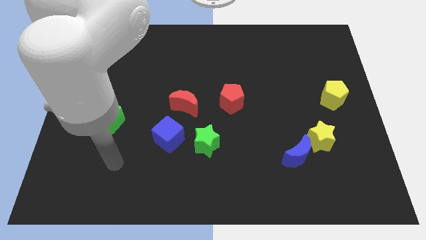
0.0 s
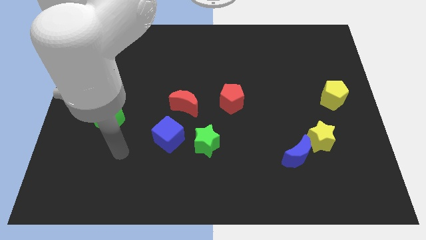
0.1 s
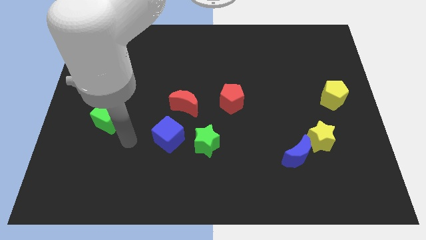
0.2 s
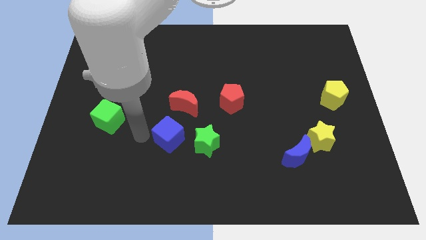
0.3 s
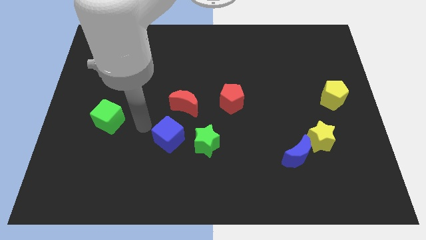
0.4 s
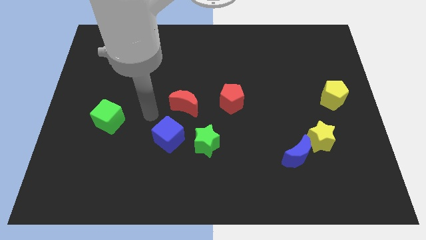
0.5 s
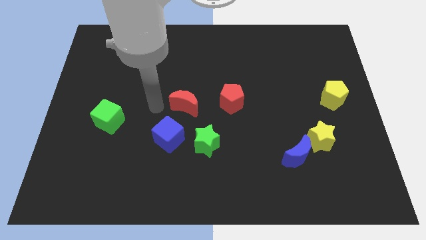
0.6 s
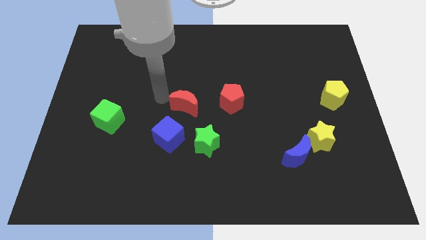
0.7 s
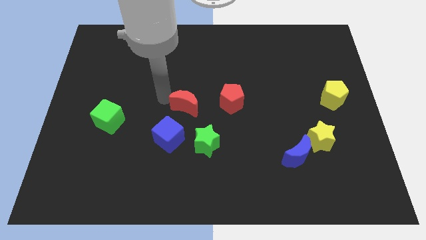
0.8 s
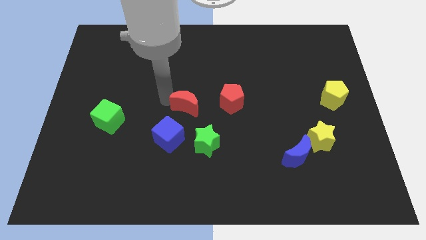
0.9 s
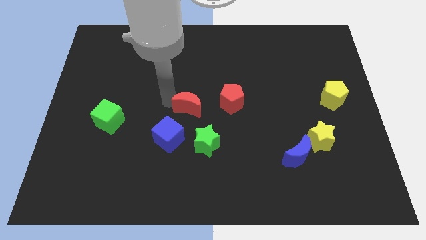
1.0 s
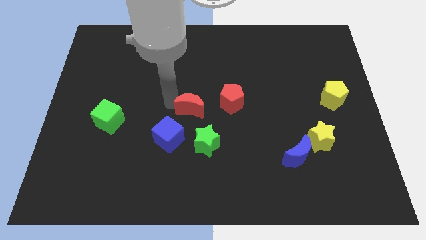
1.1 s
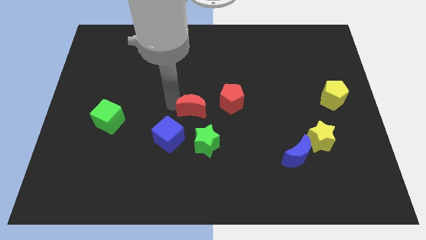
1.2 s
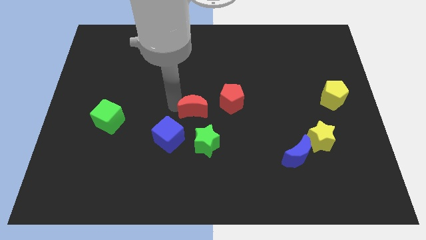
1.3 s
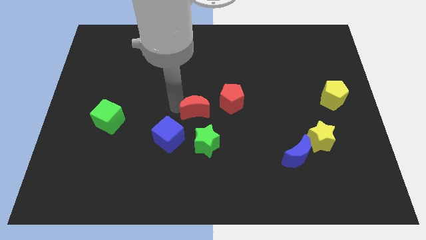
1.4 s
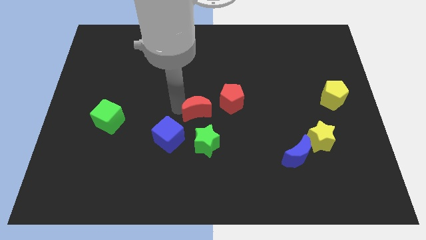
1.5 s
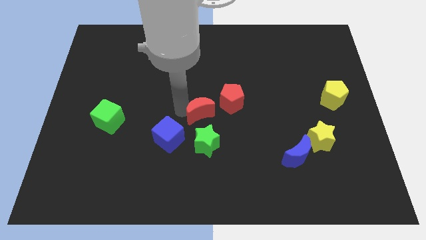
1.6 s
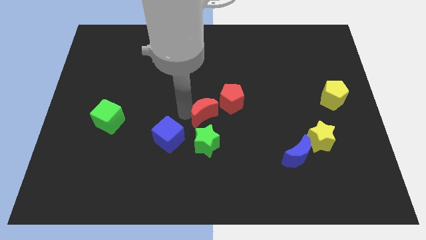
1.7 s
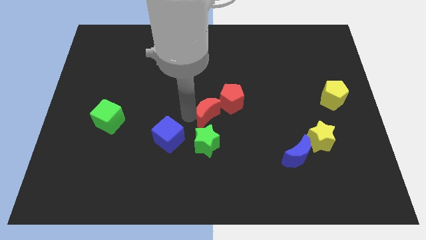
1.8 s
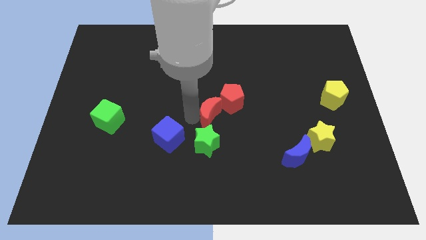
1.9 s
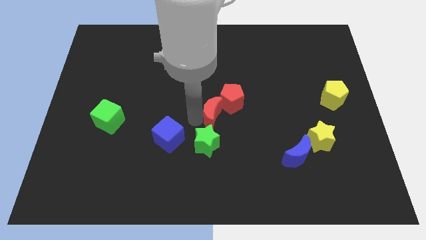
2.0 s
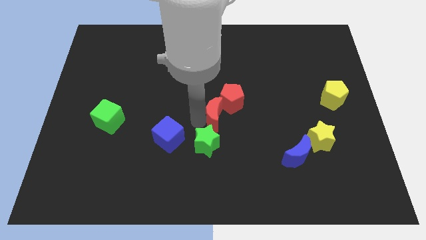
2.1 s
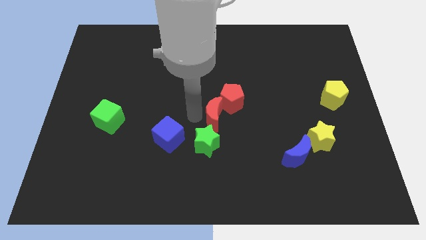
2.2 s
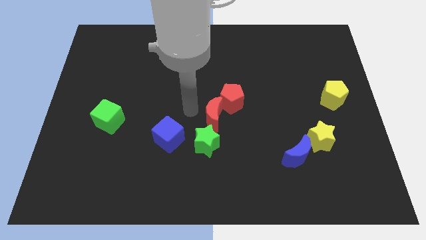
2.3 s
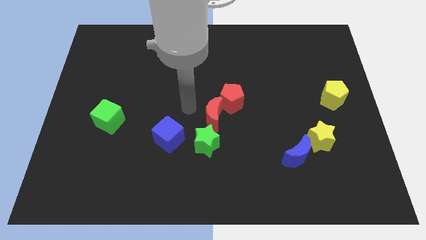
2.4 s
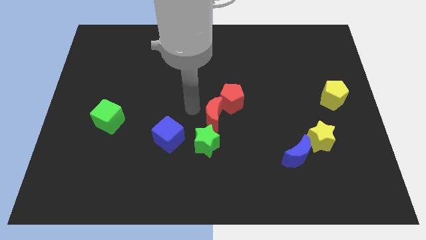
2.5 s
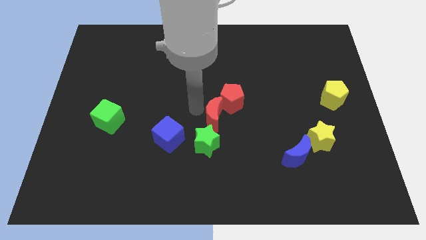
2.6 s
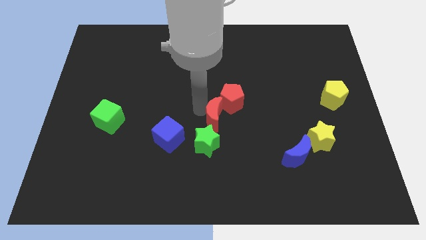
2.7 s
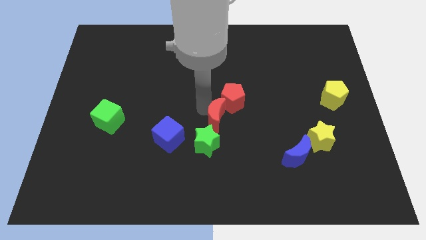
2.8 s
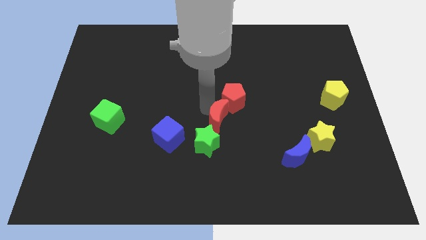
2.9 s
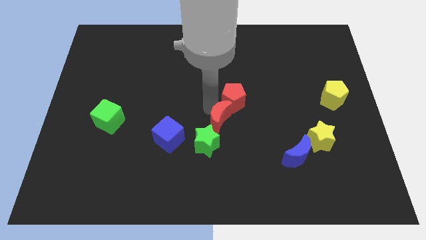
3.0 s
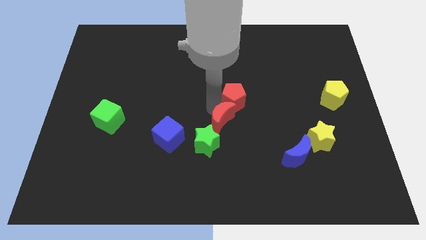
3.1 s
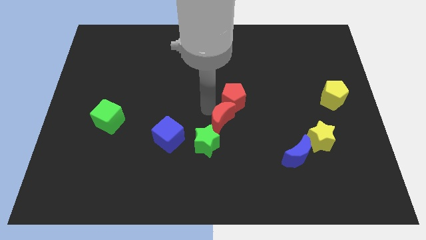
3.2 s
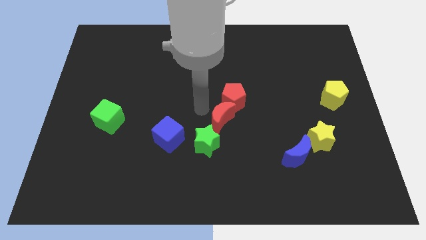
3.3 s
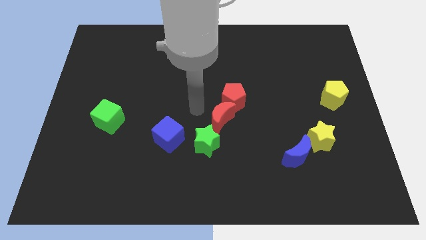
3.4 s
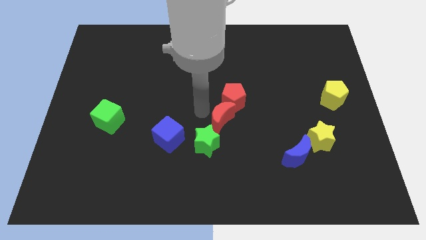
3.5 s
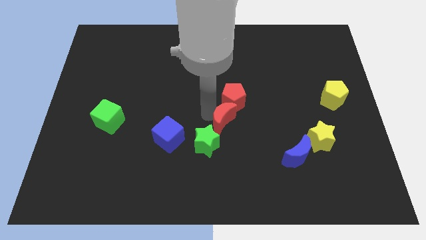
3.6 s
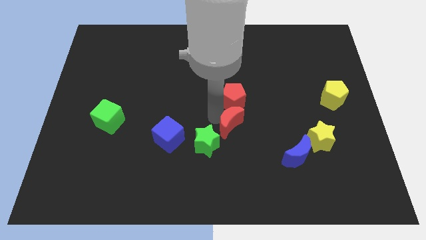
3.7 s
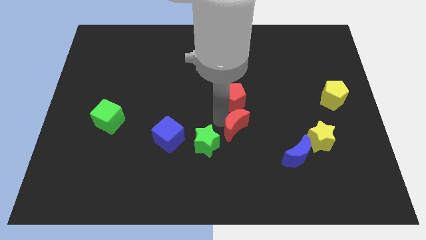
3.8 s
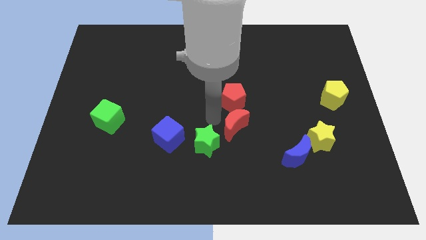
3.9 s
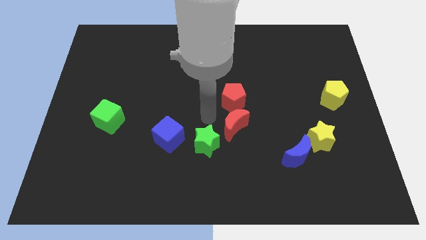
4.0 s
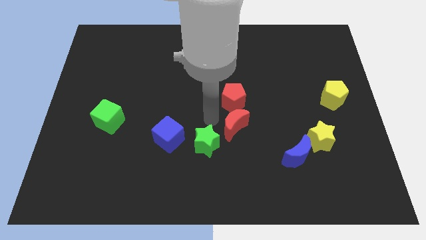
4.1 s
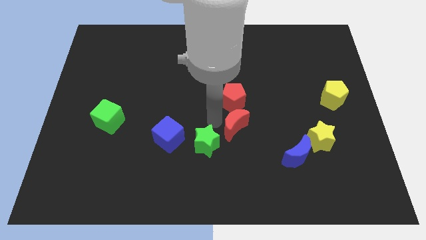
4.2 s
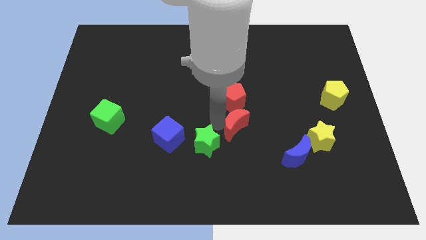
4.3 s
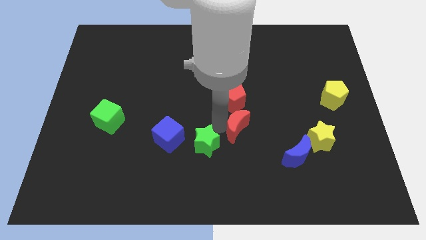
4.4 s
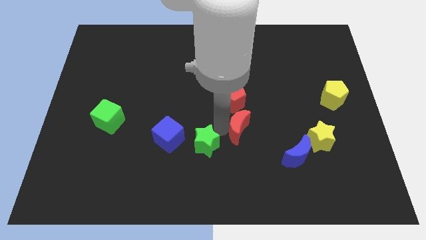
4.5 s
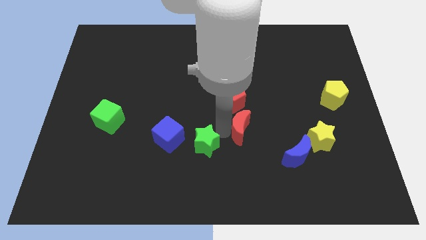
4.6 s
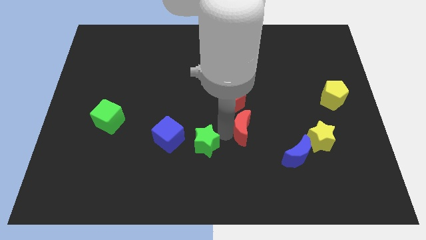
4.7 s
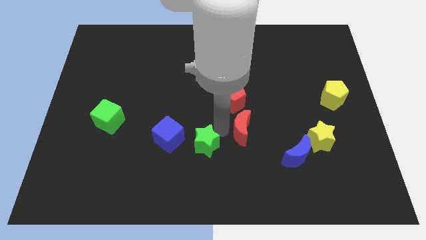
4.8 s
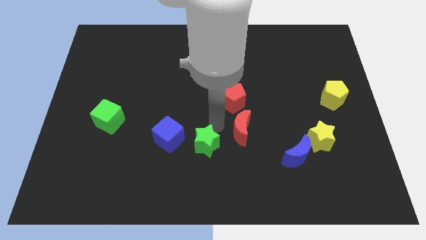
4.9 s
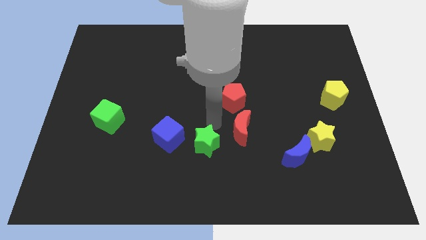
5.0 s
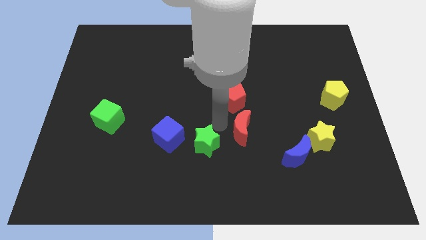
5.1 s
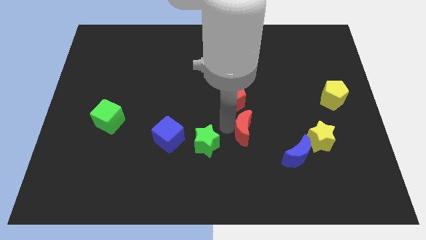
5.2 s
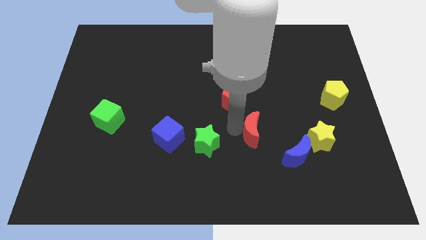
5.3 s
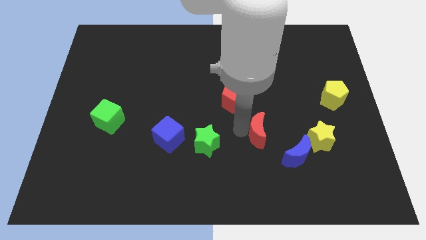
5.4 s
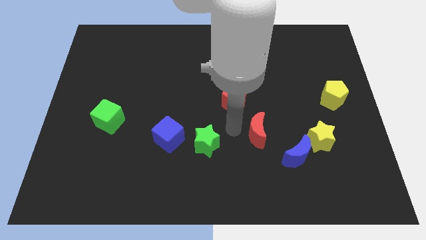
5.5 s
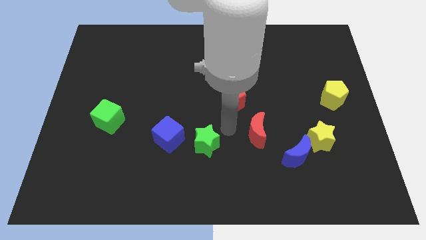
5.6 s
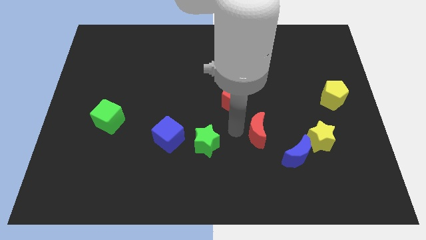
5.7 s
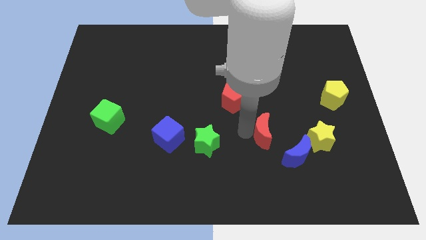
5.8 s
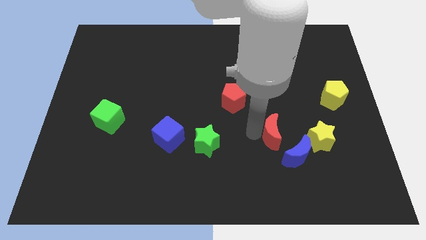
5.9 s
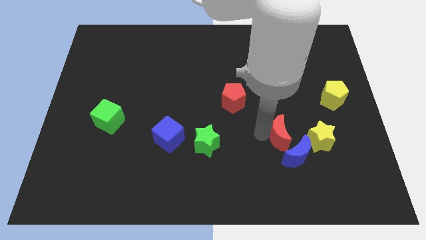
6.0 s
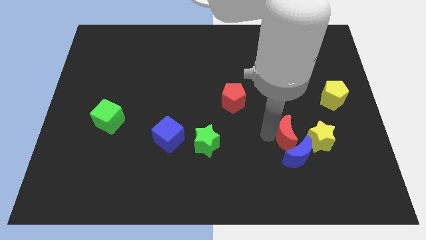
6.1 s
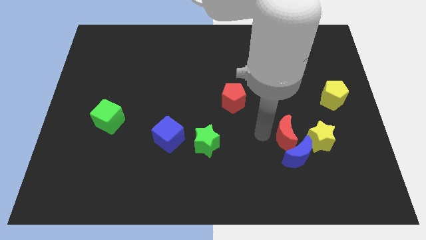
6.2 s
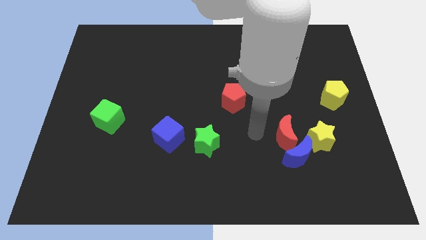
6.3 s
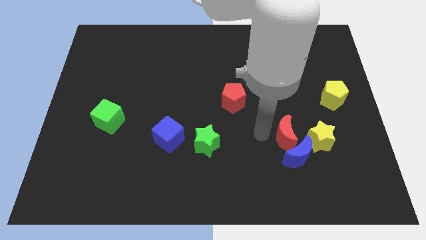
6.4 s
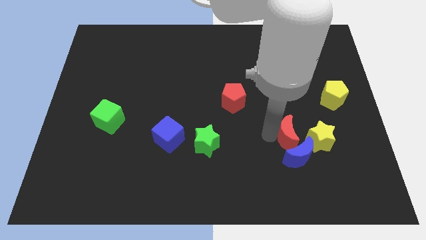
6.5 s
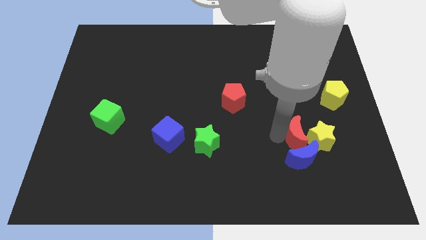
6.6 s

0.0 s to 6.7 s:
slide the red moon towards the yellow star
